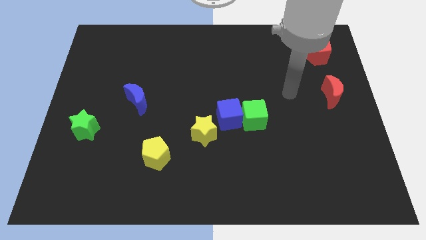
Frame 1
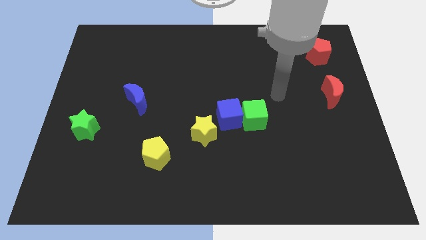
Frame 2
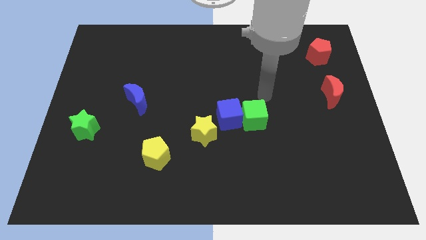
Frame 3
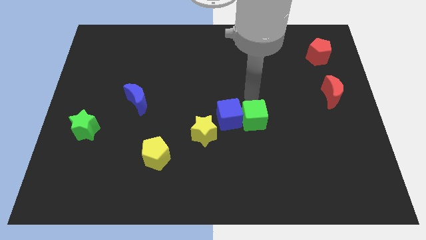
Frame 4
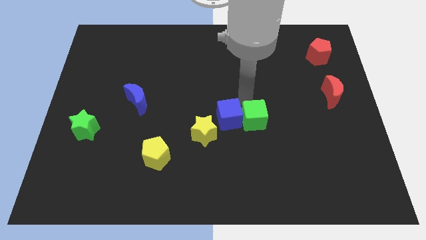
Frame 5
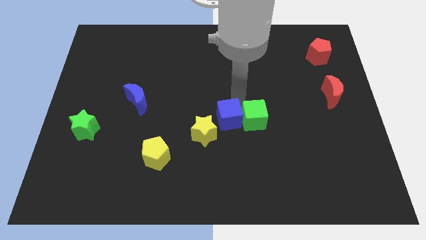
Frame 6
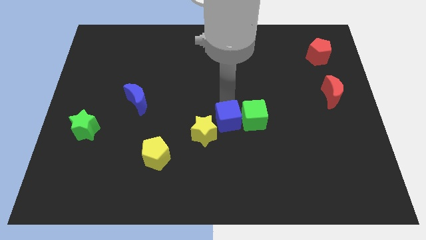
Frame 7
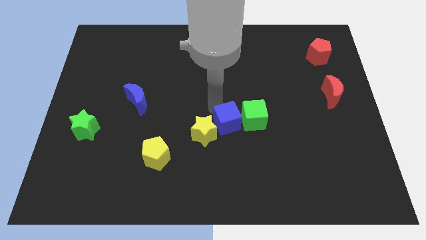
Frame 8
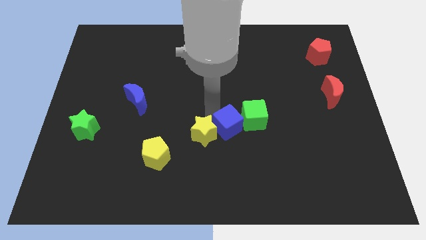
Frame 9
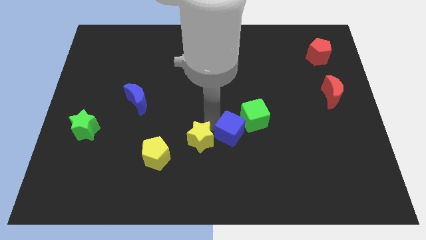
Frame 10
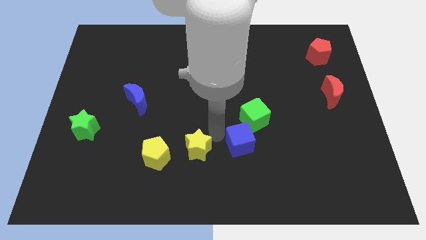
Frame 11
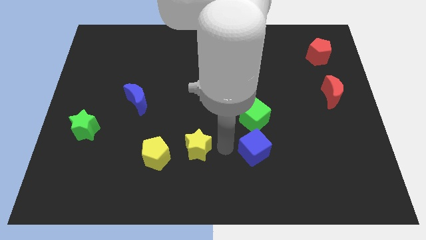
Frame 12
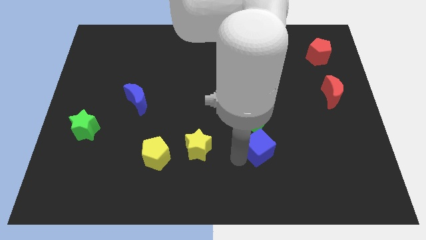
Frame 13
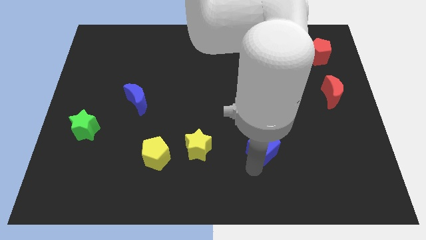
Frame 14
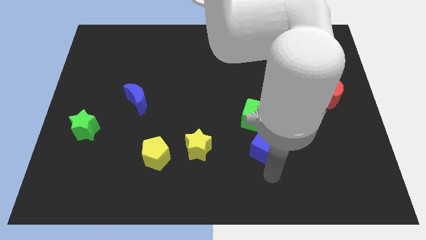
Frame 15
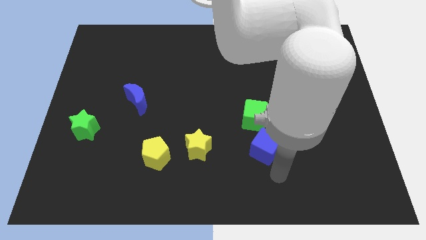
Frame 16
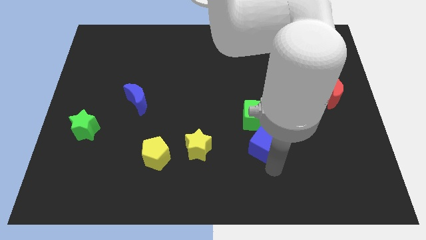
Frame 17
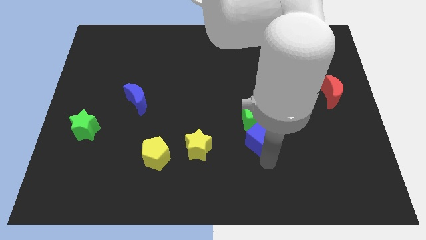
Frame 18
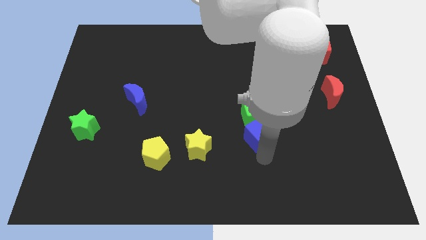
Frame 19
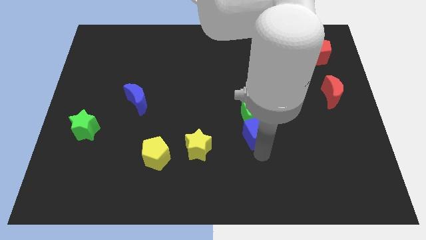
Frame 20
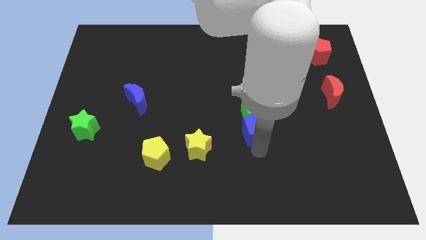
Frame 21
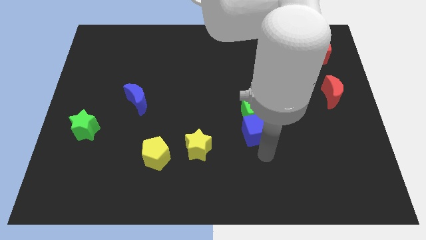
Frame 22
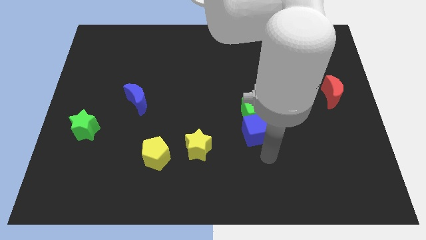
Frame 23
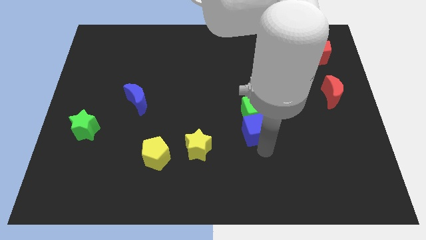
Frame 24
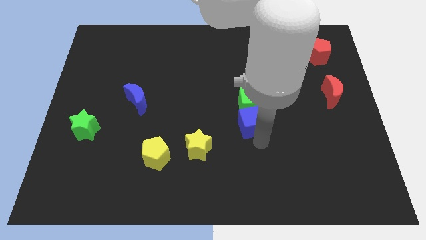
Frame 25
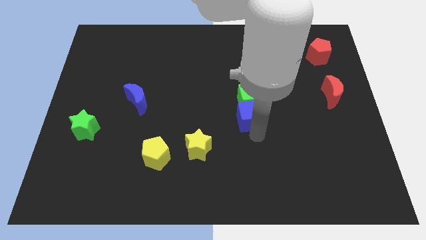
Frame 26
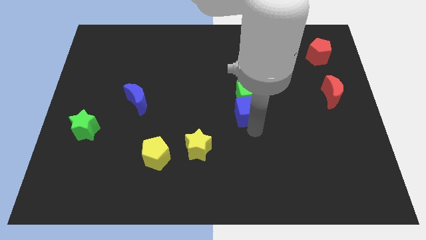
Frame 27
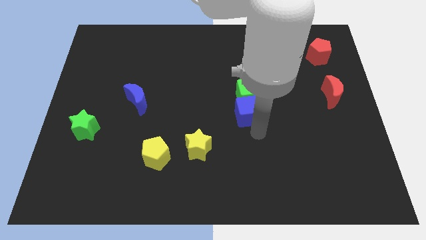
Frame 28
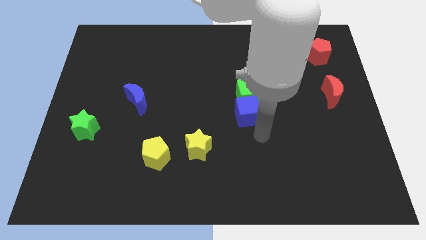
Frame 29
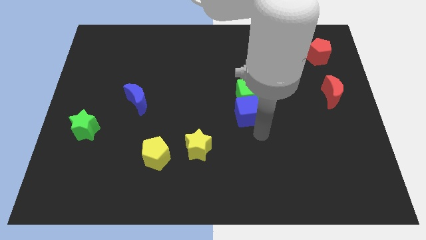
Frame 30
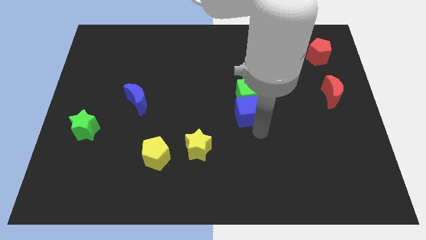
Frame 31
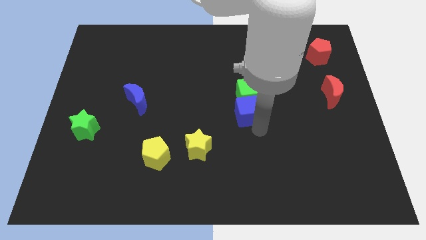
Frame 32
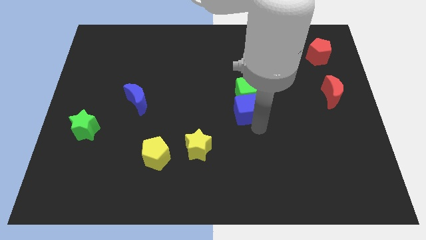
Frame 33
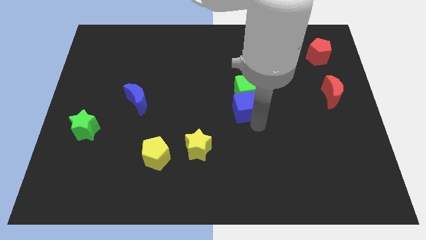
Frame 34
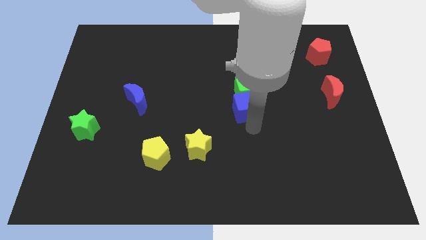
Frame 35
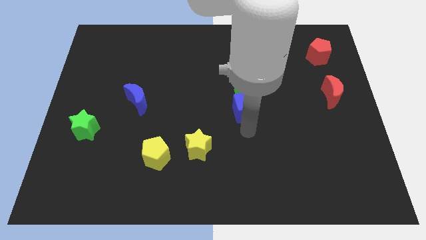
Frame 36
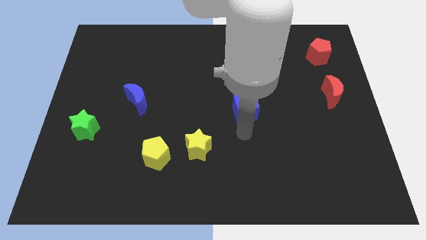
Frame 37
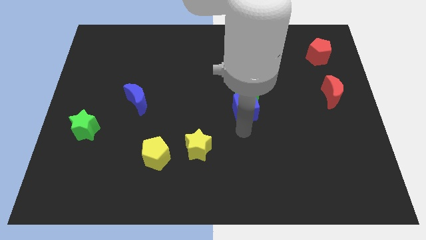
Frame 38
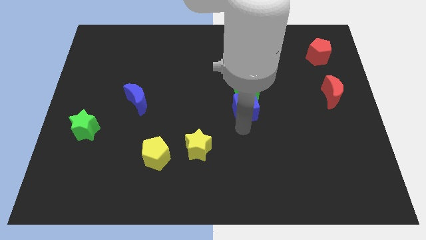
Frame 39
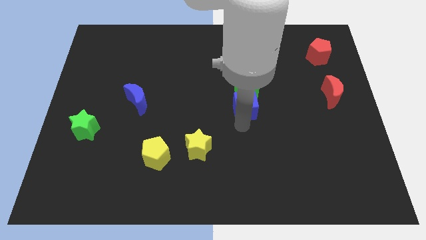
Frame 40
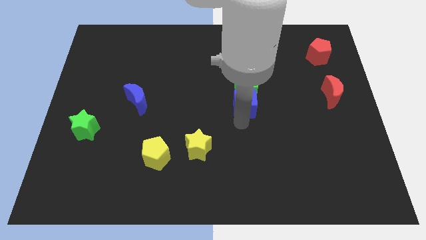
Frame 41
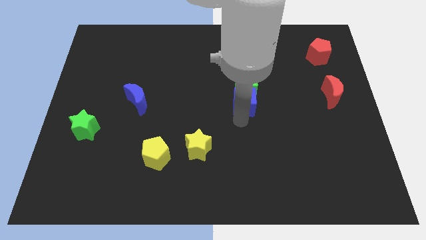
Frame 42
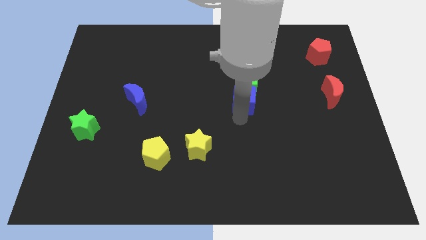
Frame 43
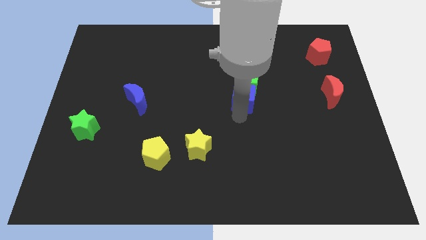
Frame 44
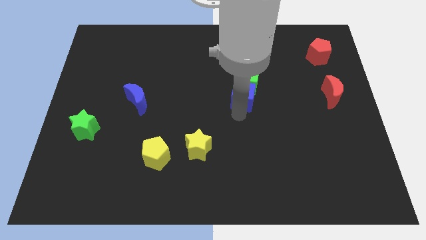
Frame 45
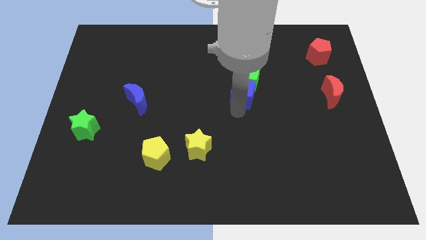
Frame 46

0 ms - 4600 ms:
move the blue cube upwards and then to the right a little

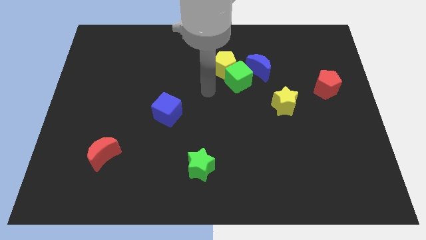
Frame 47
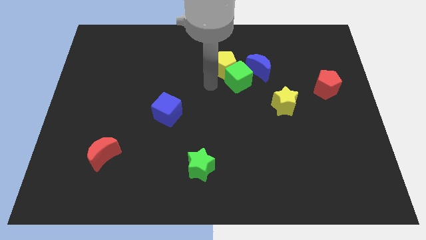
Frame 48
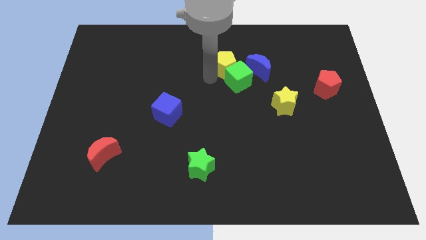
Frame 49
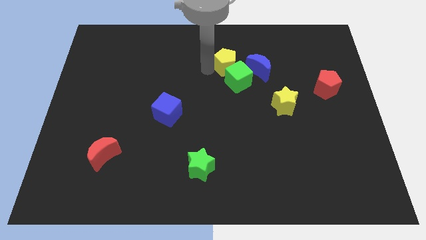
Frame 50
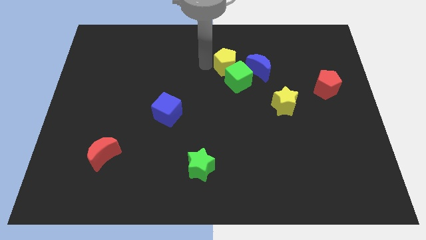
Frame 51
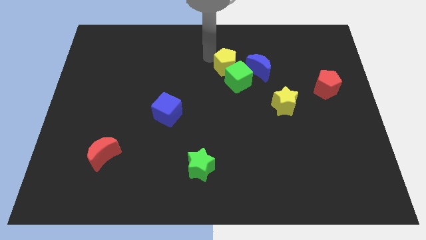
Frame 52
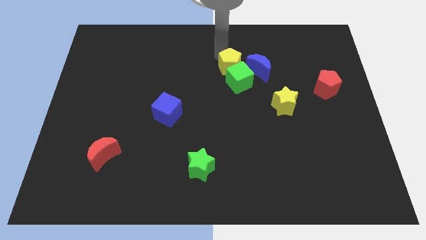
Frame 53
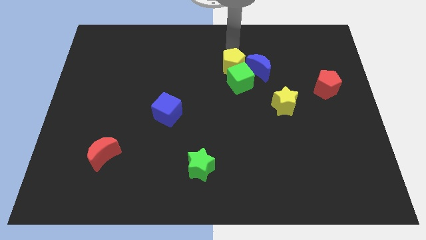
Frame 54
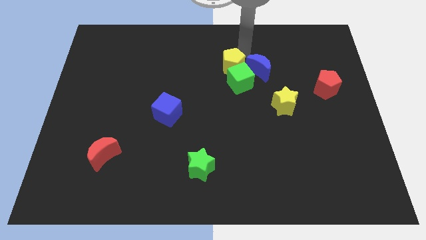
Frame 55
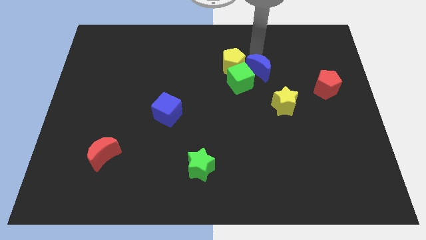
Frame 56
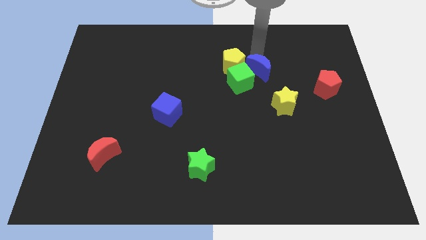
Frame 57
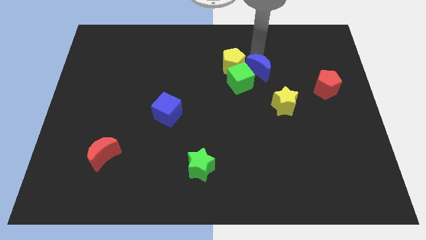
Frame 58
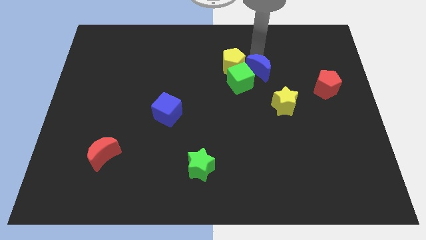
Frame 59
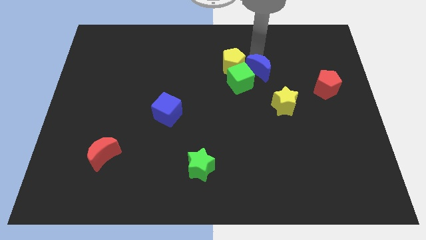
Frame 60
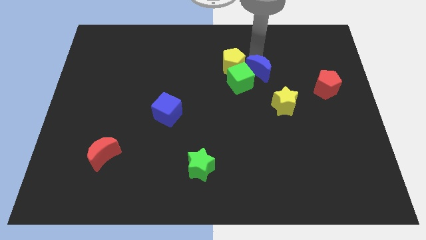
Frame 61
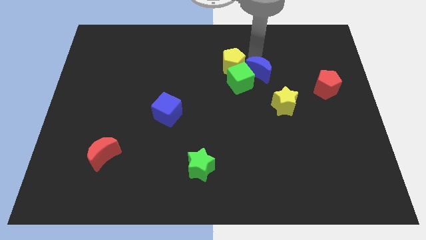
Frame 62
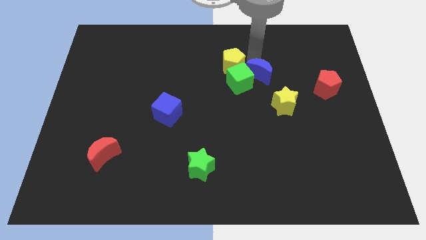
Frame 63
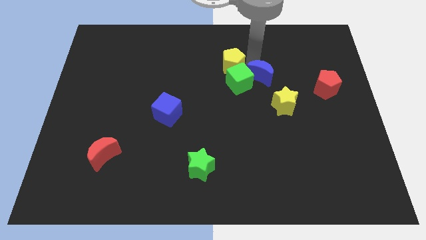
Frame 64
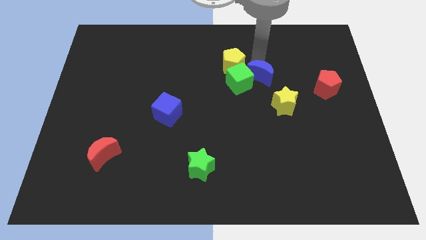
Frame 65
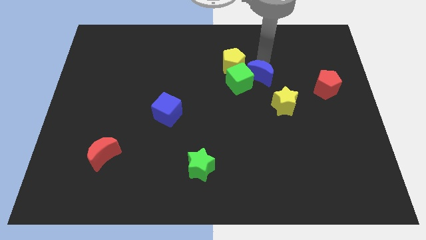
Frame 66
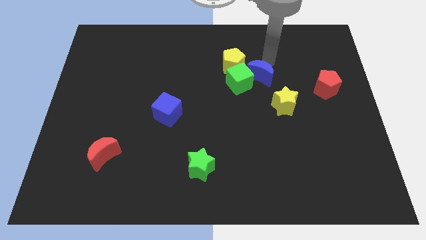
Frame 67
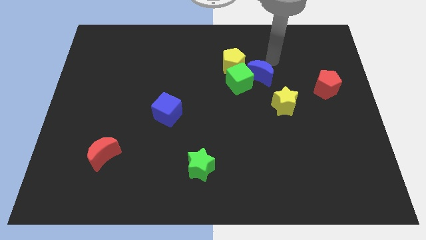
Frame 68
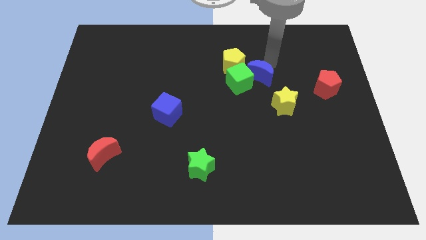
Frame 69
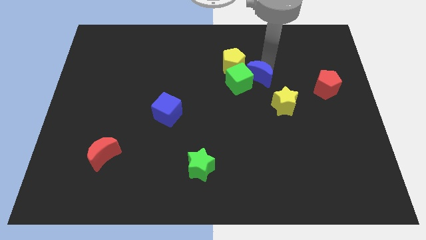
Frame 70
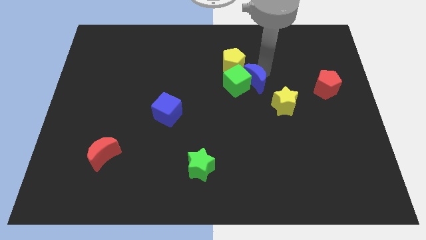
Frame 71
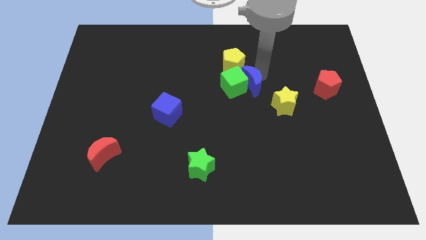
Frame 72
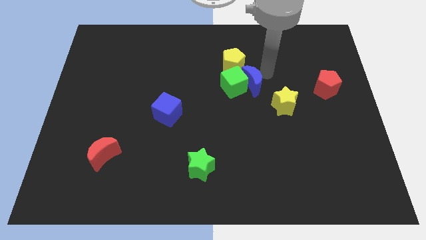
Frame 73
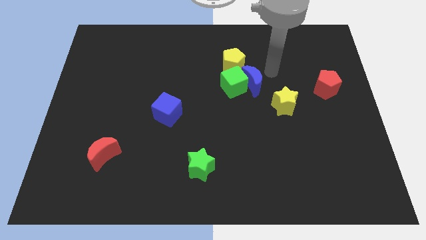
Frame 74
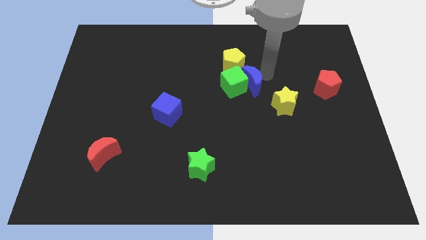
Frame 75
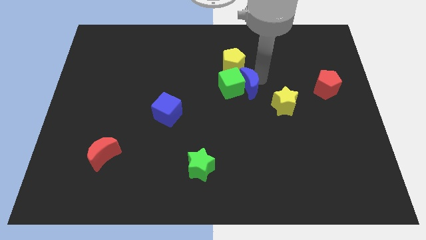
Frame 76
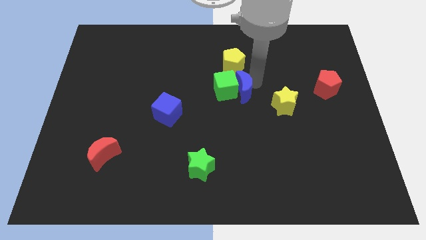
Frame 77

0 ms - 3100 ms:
move the blue moon a little bit diagonally downwards and left

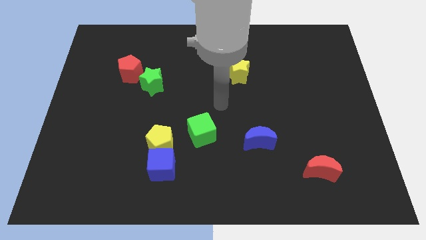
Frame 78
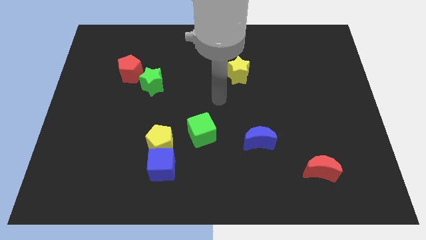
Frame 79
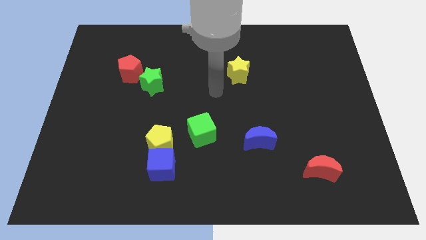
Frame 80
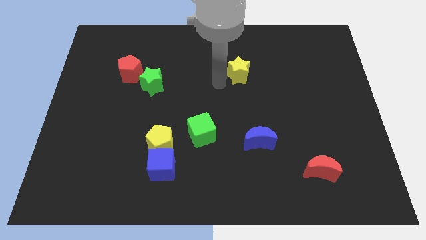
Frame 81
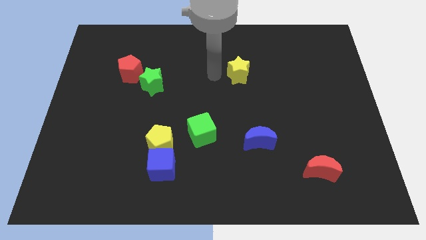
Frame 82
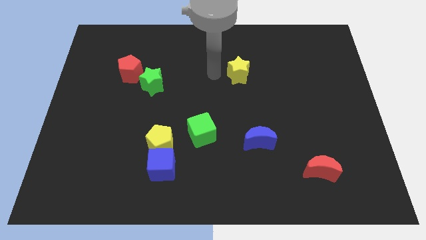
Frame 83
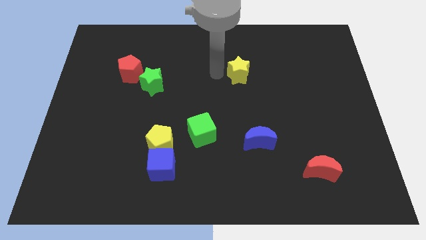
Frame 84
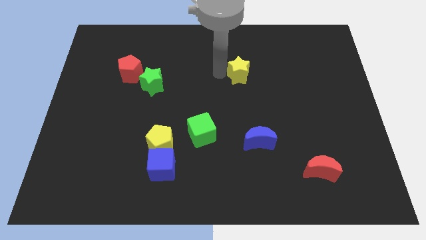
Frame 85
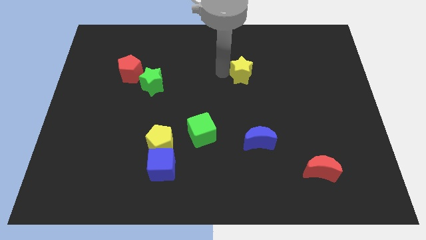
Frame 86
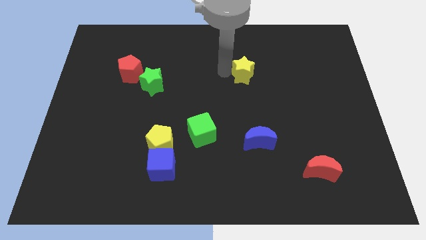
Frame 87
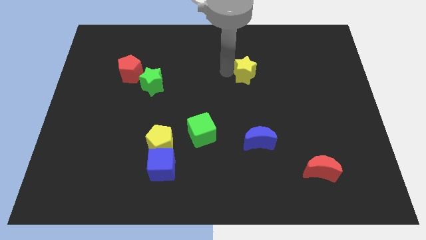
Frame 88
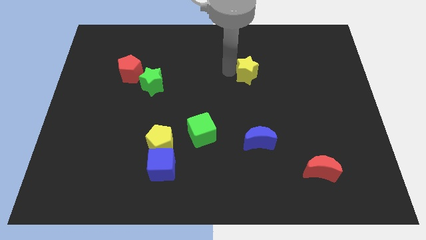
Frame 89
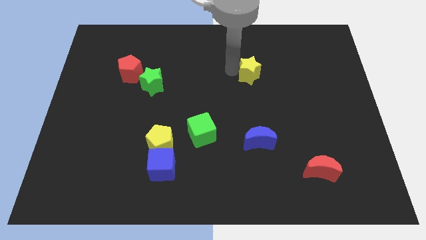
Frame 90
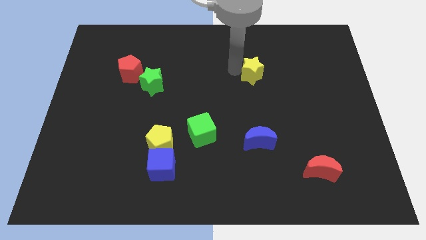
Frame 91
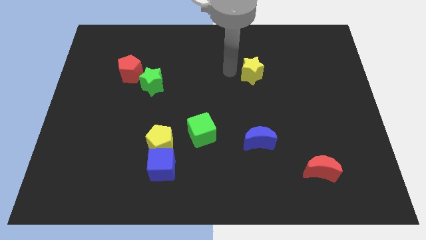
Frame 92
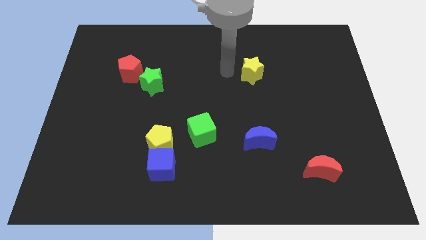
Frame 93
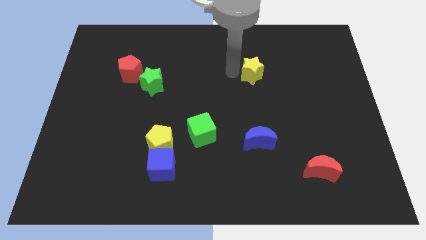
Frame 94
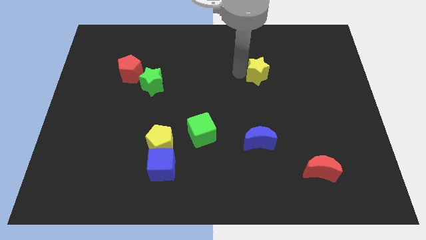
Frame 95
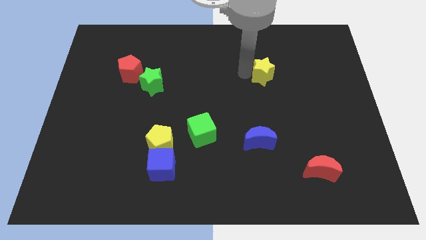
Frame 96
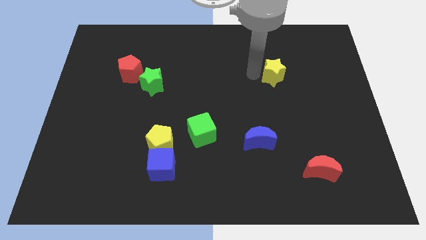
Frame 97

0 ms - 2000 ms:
slightly slide the yellow star right
